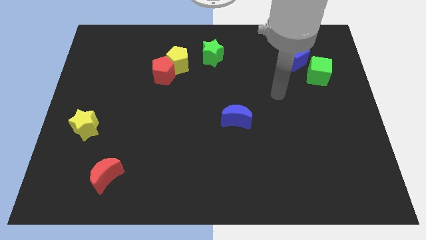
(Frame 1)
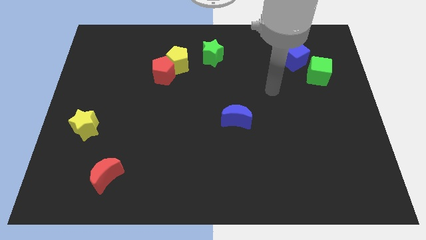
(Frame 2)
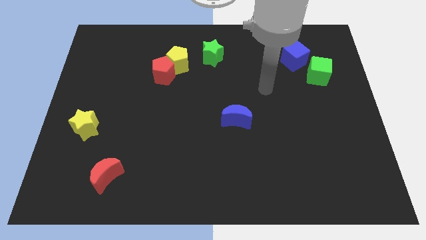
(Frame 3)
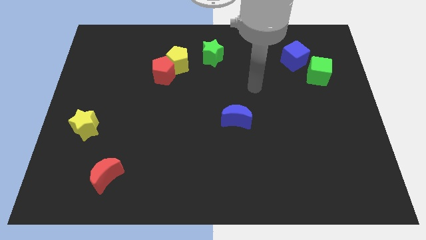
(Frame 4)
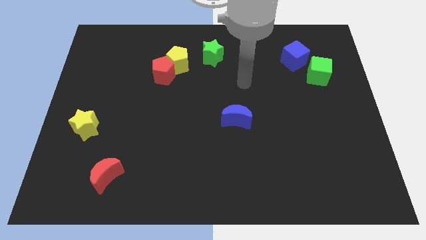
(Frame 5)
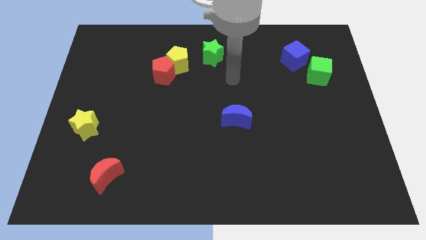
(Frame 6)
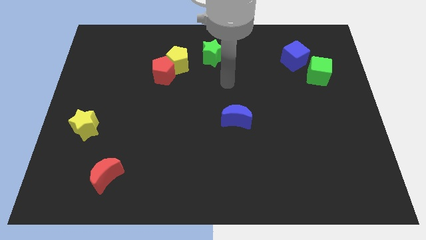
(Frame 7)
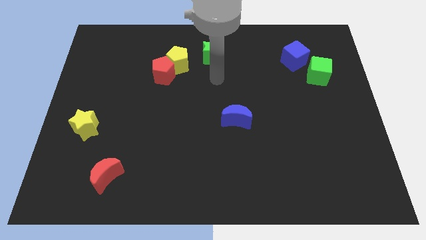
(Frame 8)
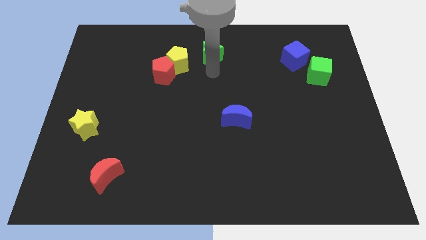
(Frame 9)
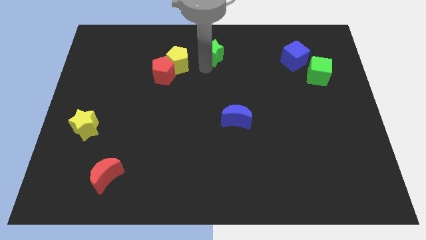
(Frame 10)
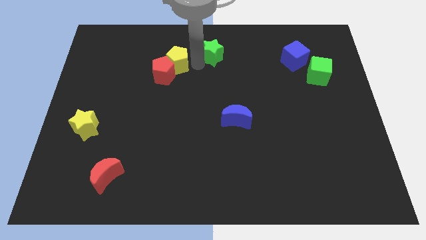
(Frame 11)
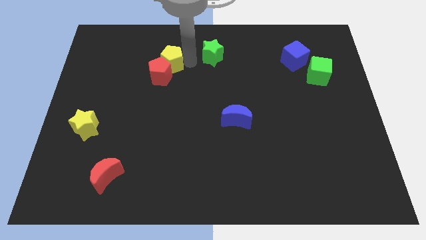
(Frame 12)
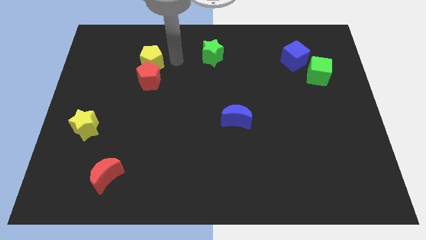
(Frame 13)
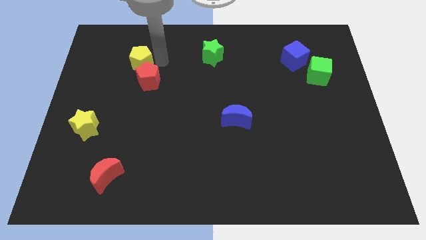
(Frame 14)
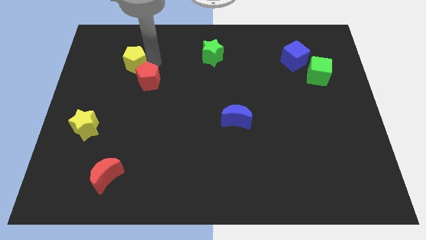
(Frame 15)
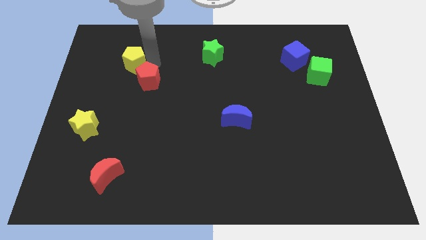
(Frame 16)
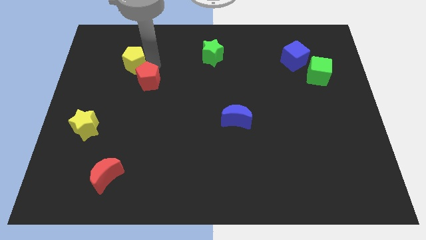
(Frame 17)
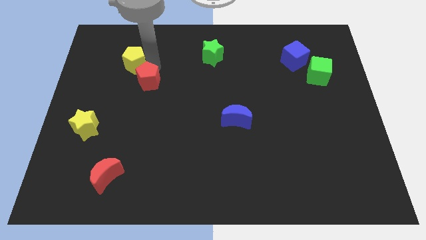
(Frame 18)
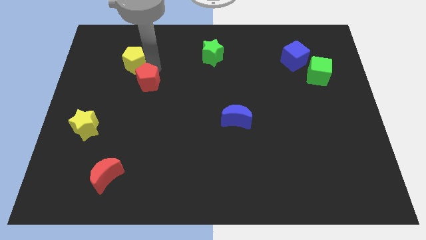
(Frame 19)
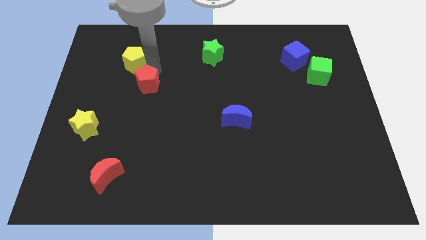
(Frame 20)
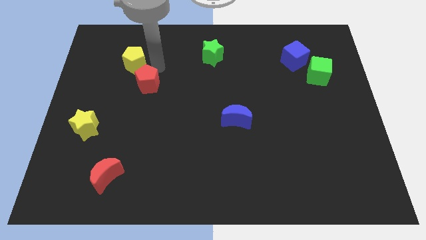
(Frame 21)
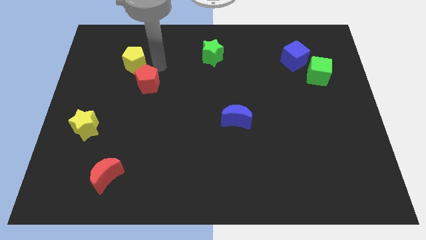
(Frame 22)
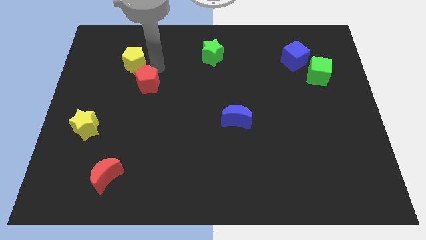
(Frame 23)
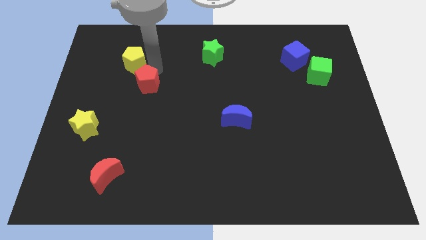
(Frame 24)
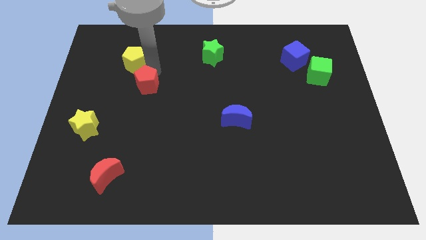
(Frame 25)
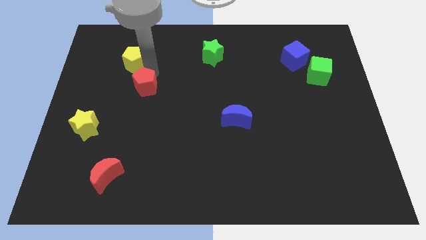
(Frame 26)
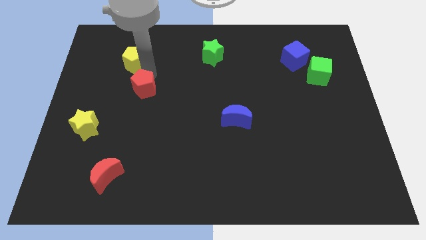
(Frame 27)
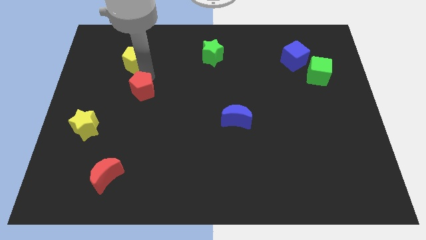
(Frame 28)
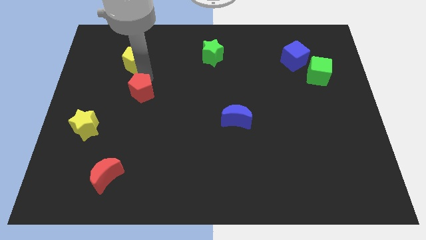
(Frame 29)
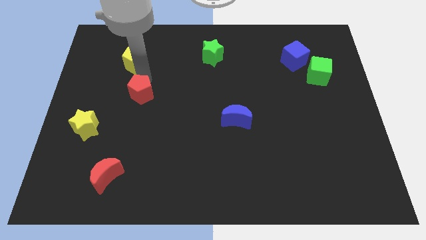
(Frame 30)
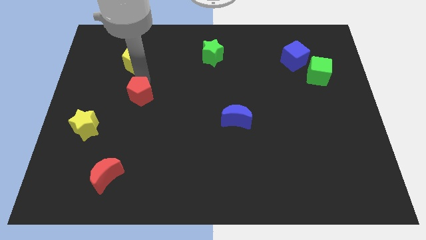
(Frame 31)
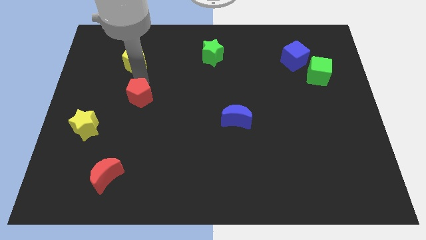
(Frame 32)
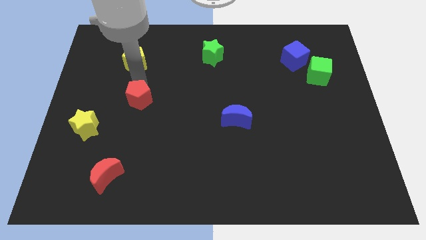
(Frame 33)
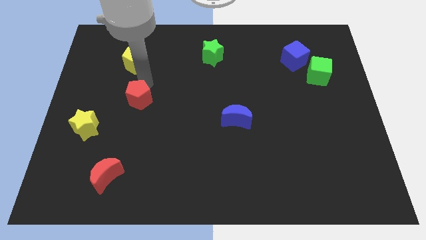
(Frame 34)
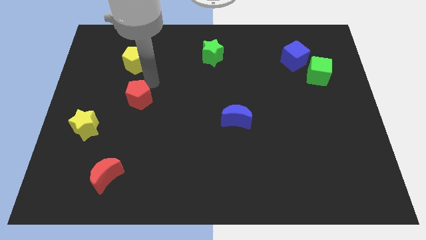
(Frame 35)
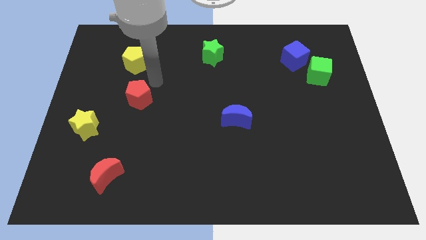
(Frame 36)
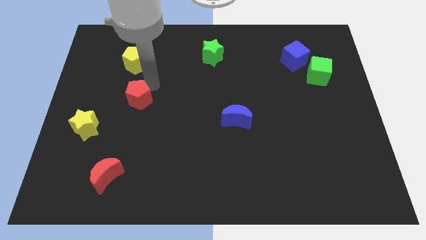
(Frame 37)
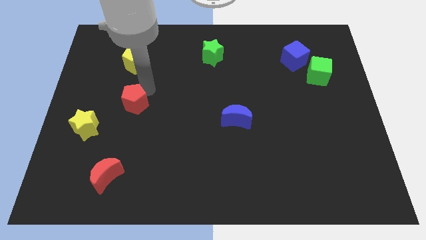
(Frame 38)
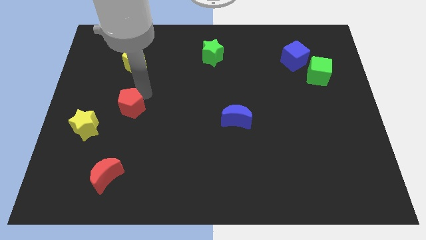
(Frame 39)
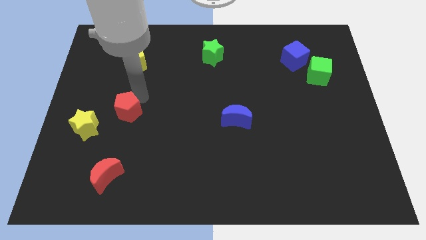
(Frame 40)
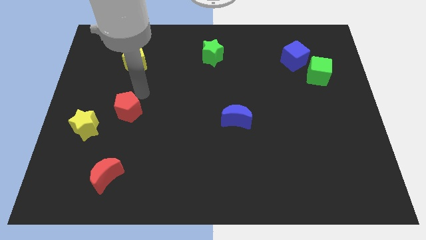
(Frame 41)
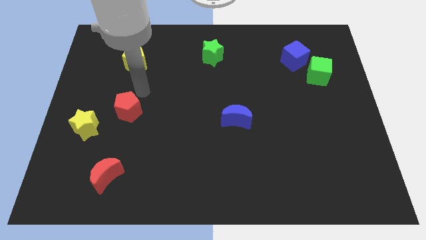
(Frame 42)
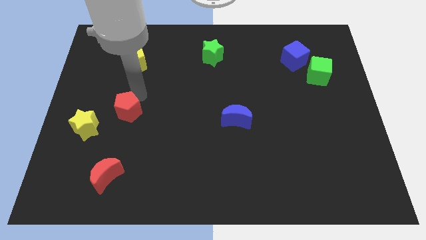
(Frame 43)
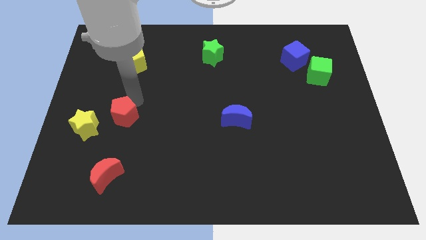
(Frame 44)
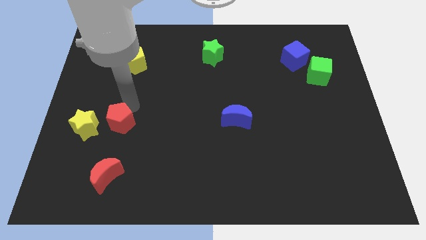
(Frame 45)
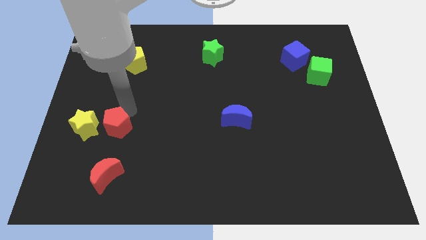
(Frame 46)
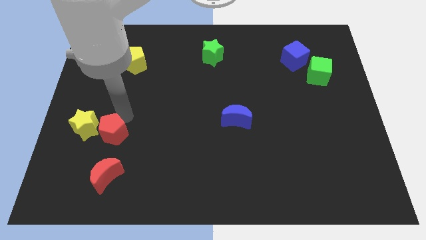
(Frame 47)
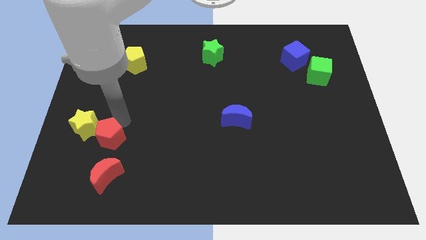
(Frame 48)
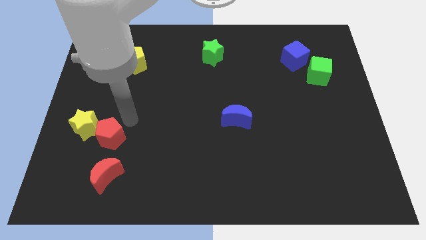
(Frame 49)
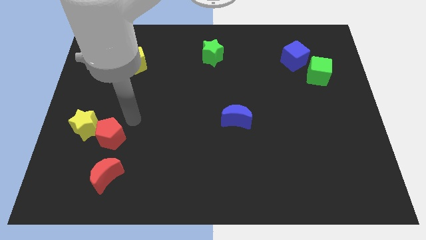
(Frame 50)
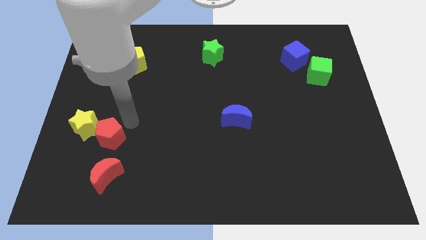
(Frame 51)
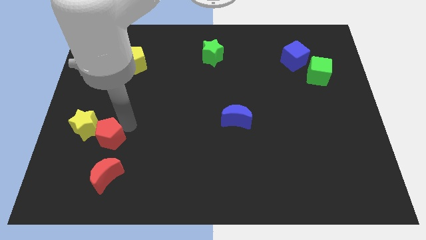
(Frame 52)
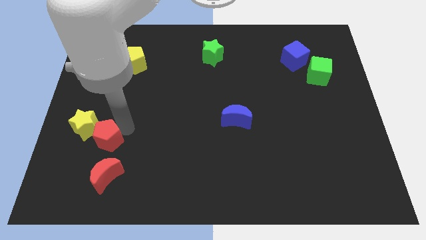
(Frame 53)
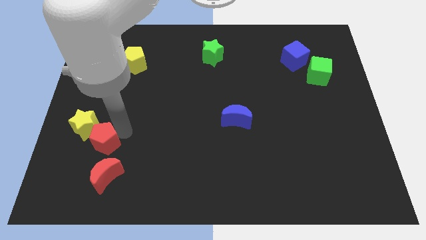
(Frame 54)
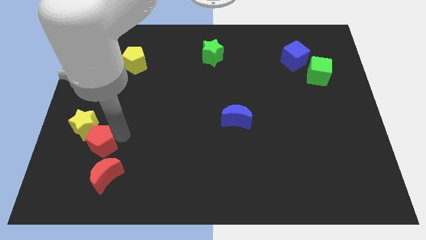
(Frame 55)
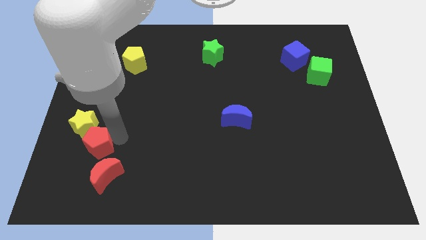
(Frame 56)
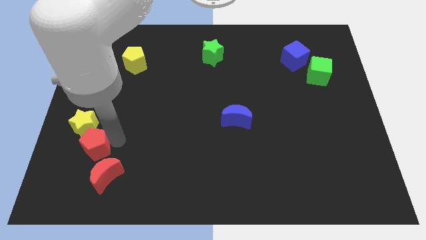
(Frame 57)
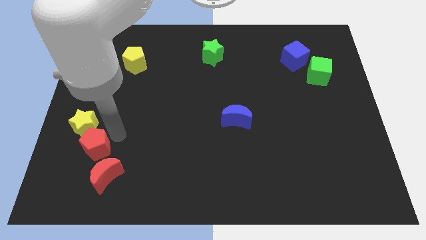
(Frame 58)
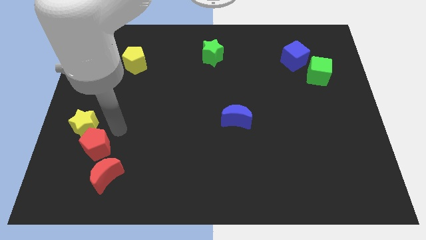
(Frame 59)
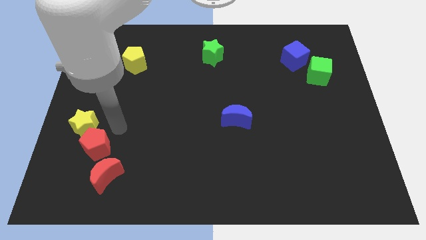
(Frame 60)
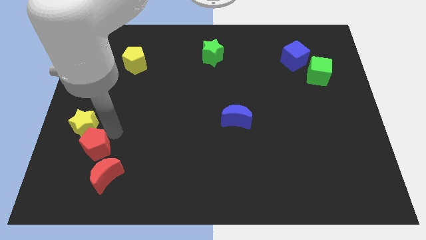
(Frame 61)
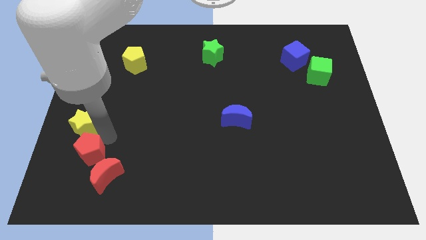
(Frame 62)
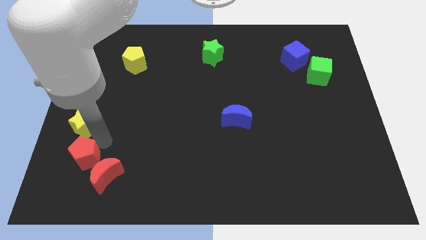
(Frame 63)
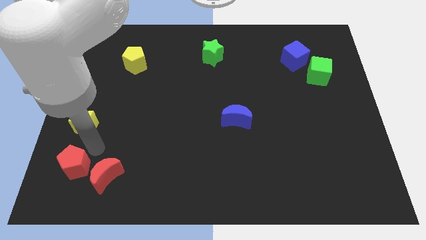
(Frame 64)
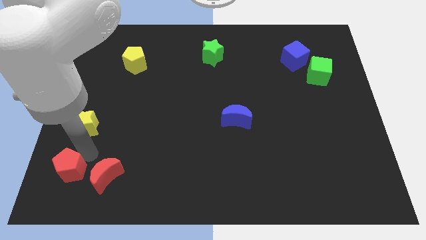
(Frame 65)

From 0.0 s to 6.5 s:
put the red pentagon to the bottom left of the board

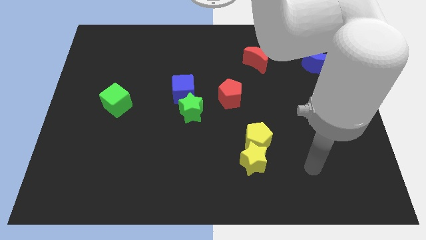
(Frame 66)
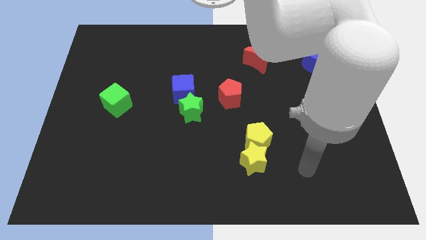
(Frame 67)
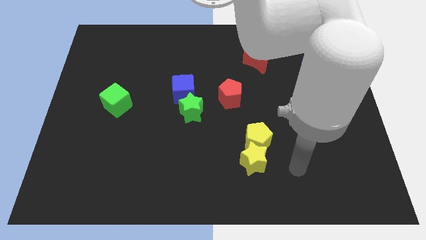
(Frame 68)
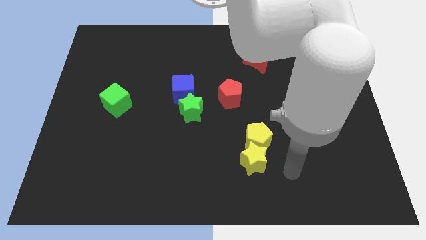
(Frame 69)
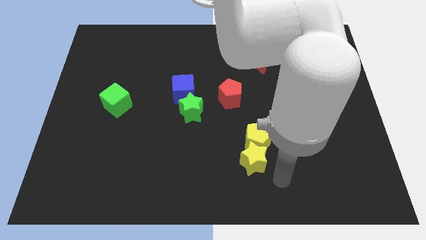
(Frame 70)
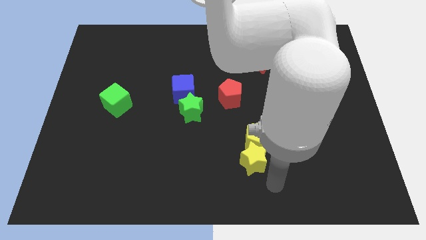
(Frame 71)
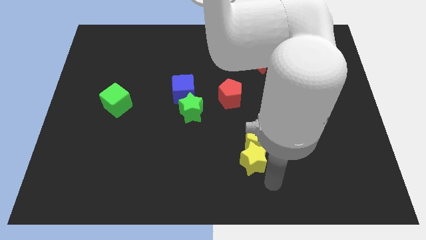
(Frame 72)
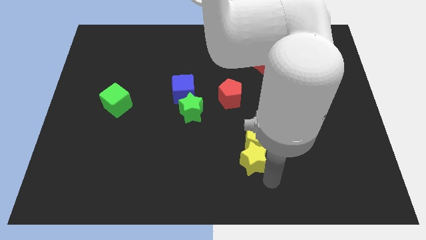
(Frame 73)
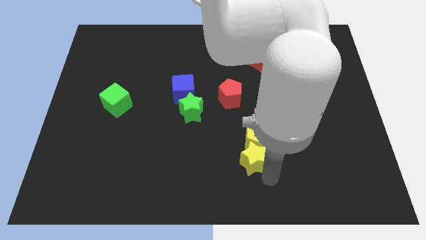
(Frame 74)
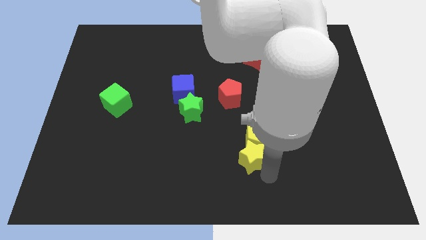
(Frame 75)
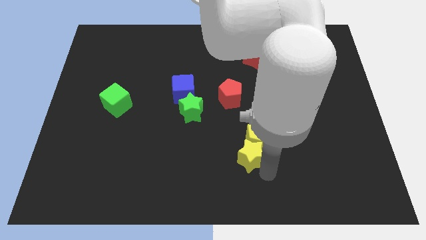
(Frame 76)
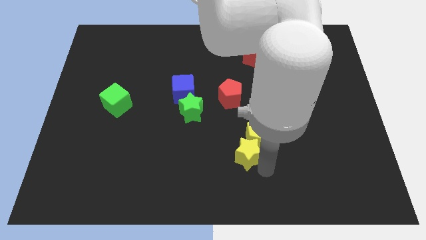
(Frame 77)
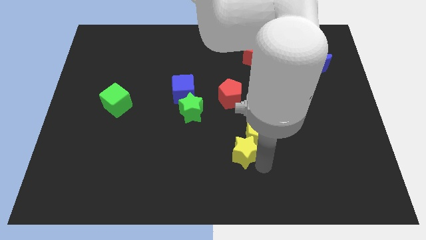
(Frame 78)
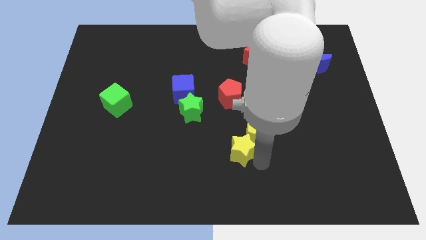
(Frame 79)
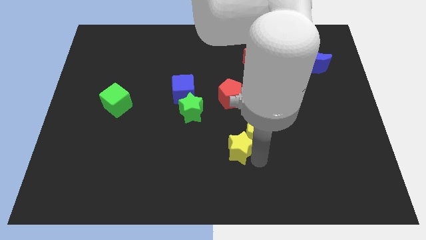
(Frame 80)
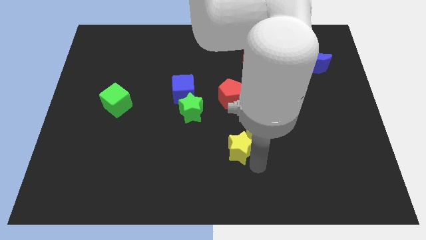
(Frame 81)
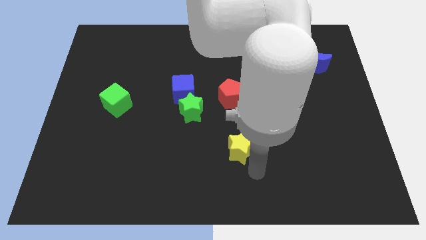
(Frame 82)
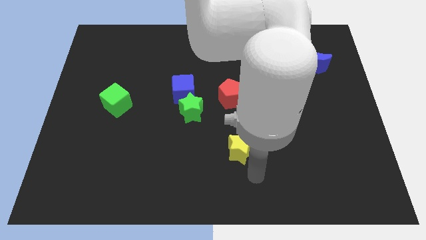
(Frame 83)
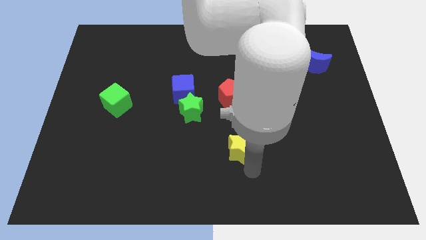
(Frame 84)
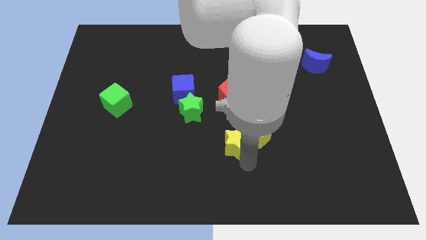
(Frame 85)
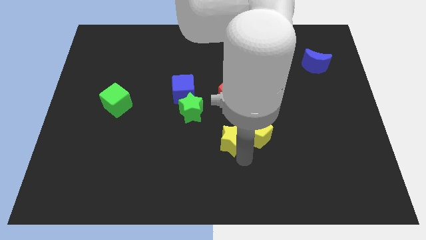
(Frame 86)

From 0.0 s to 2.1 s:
push the yellow star to the middle
